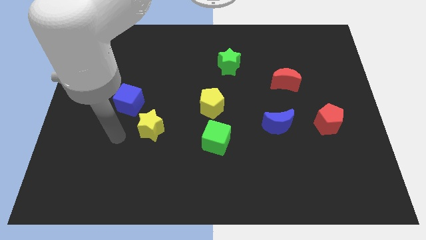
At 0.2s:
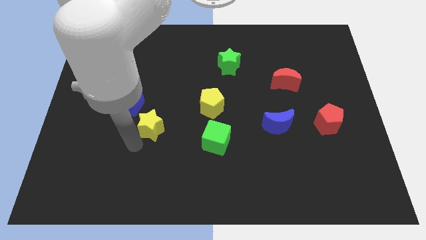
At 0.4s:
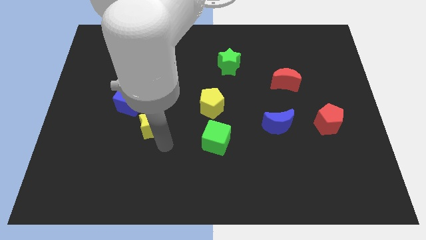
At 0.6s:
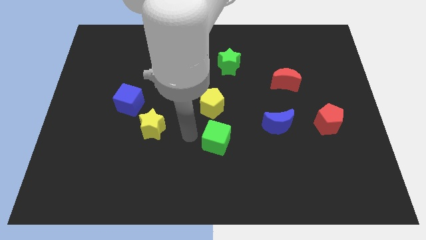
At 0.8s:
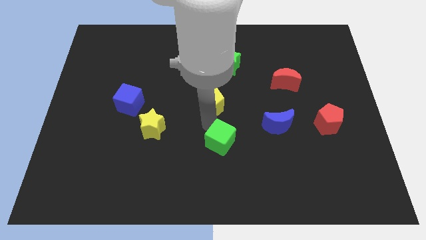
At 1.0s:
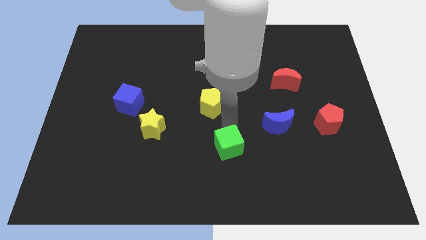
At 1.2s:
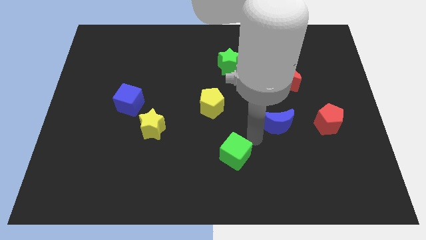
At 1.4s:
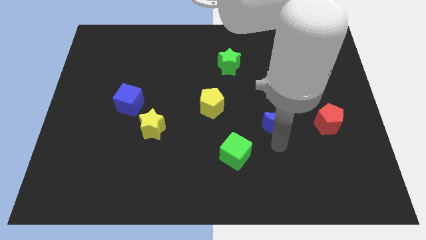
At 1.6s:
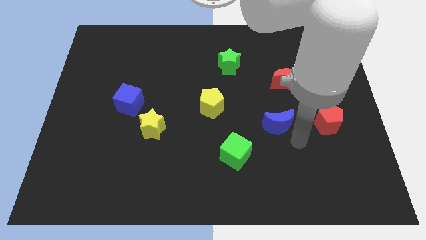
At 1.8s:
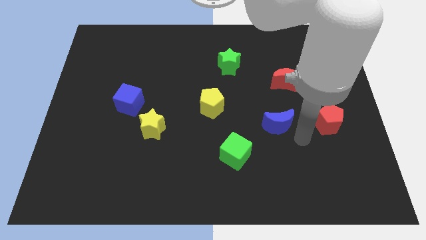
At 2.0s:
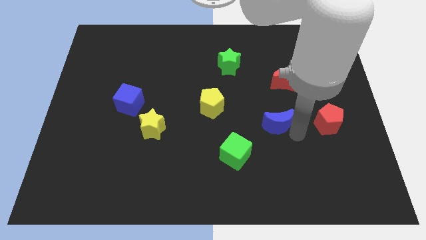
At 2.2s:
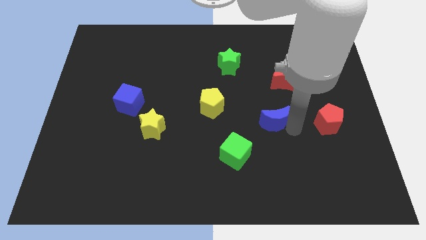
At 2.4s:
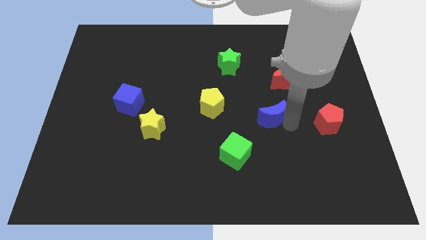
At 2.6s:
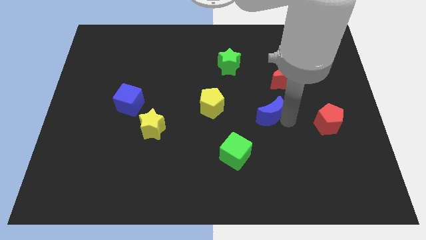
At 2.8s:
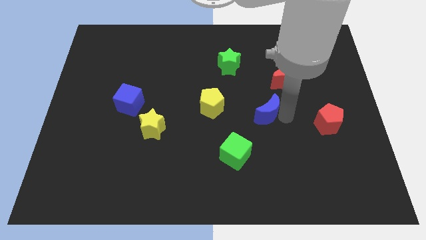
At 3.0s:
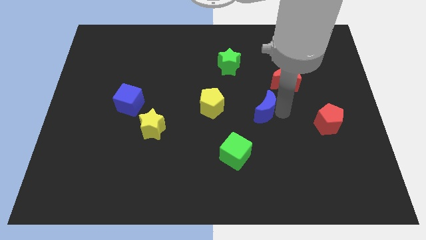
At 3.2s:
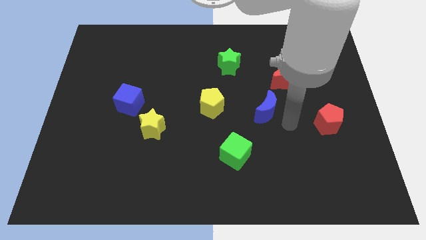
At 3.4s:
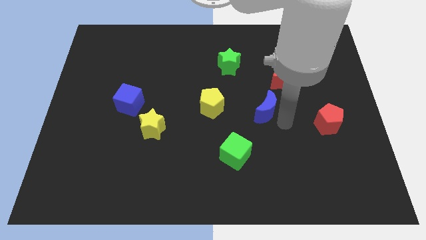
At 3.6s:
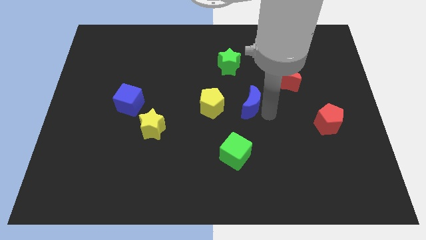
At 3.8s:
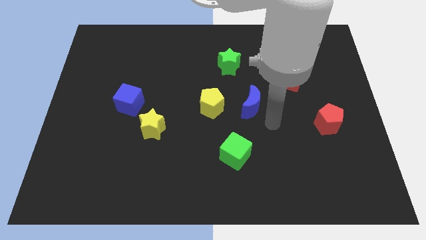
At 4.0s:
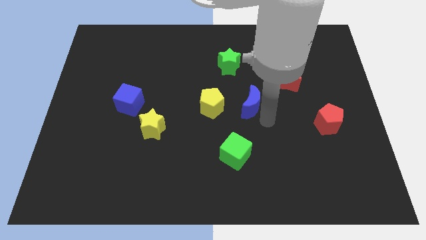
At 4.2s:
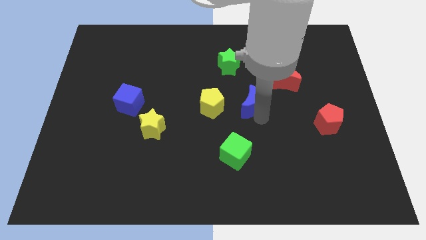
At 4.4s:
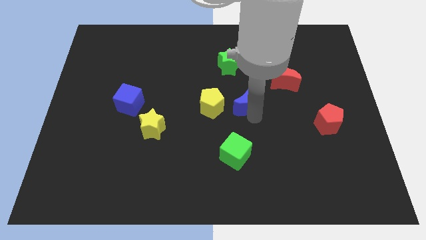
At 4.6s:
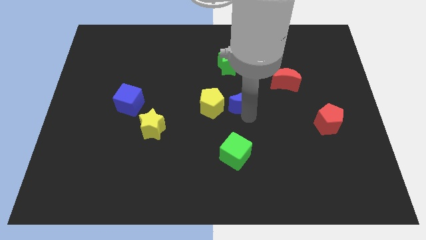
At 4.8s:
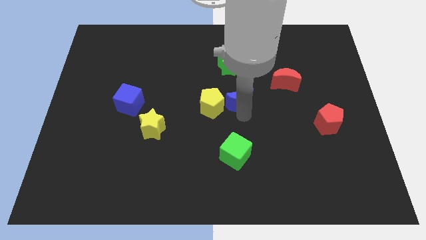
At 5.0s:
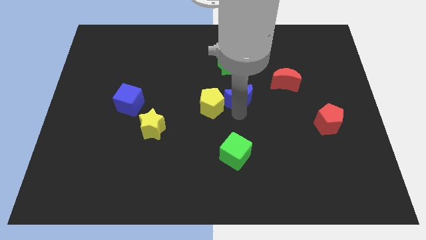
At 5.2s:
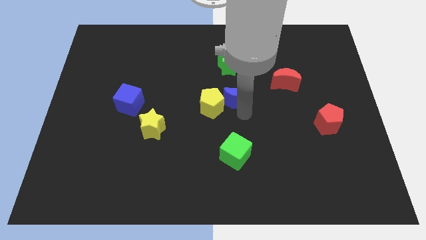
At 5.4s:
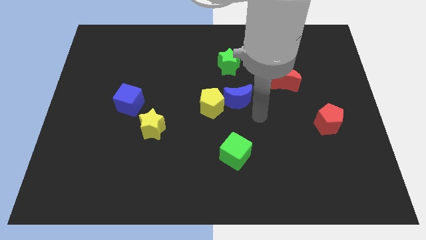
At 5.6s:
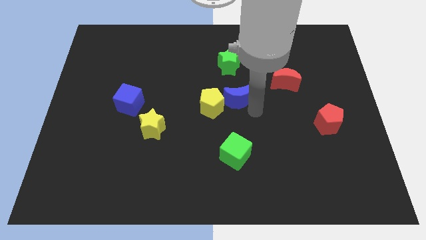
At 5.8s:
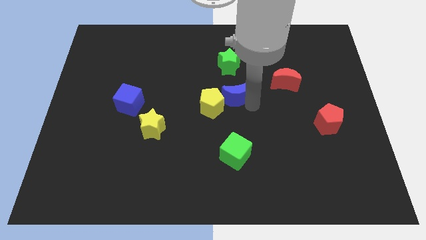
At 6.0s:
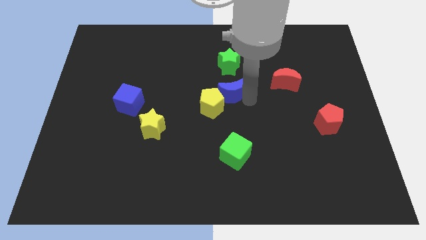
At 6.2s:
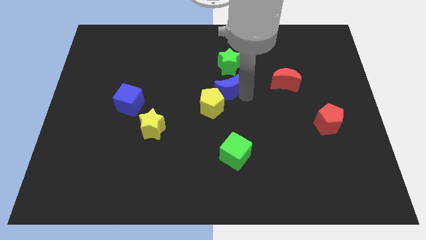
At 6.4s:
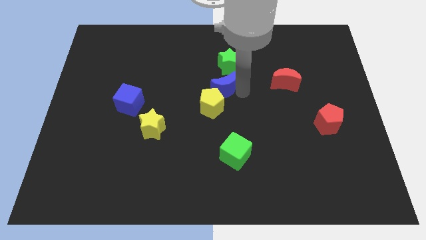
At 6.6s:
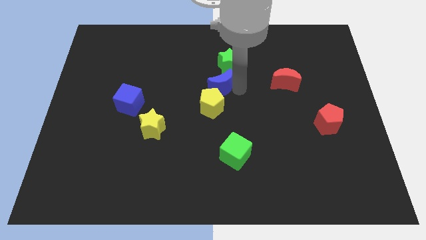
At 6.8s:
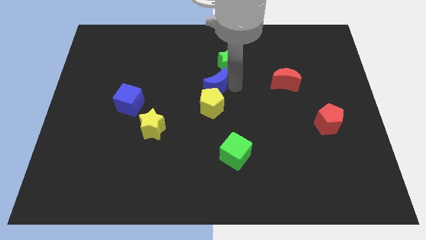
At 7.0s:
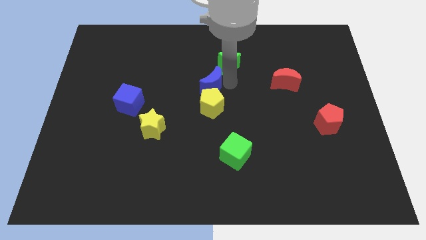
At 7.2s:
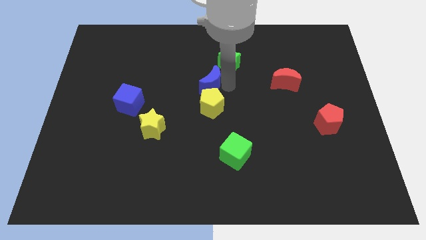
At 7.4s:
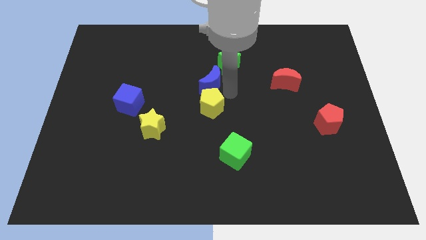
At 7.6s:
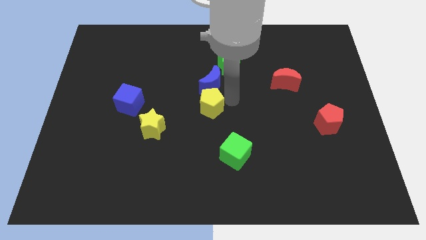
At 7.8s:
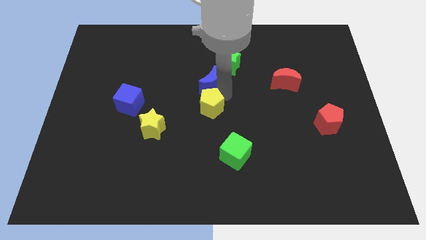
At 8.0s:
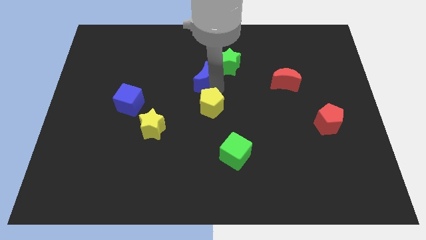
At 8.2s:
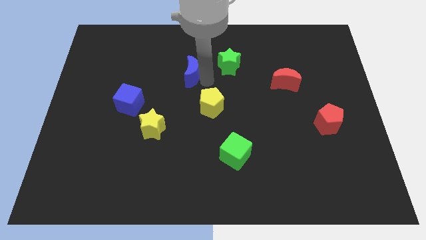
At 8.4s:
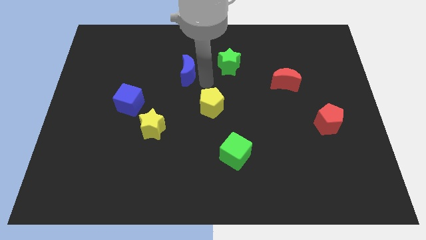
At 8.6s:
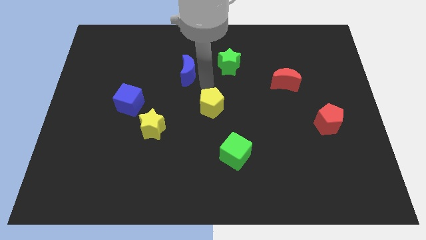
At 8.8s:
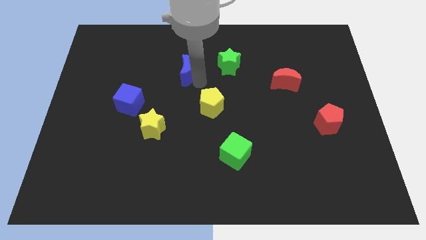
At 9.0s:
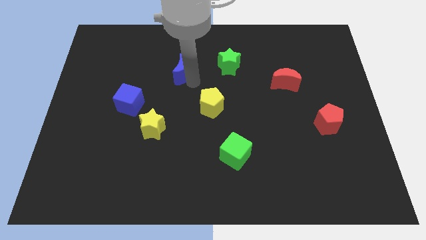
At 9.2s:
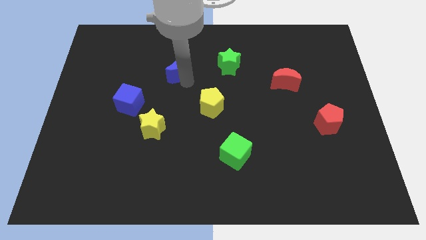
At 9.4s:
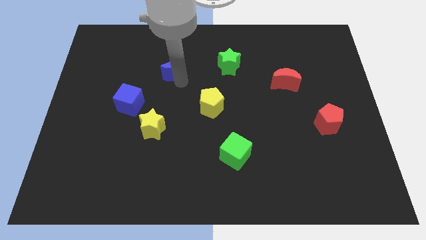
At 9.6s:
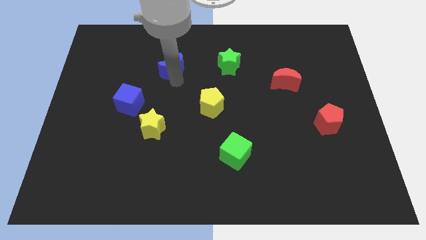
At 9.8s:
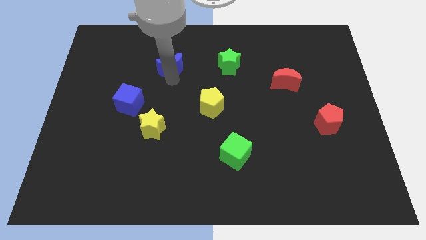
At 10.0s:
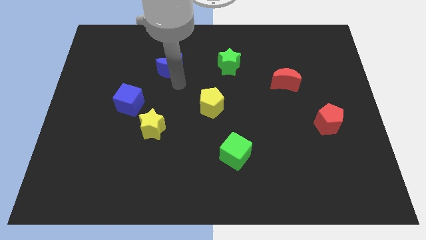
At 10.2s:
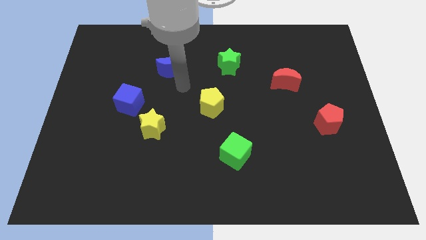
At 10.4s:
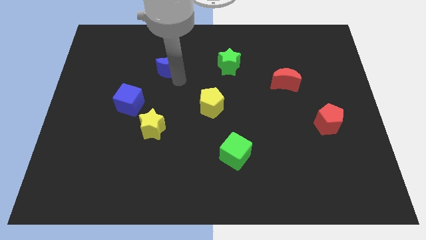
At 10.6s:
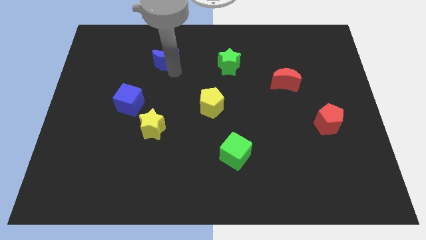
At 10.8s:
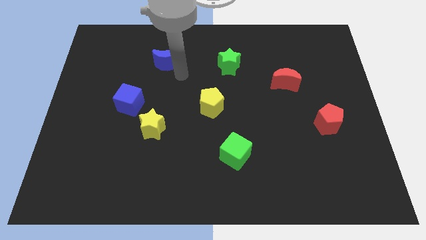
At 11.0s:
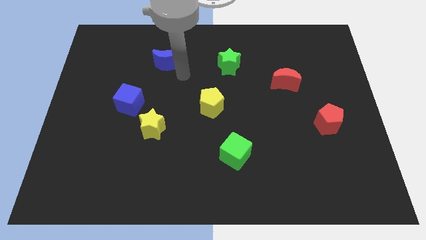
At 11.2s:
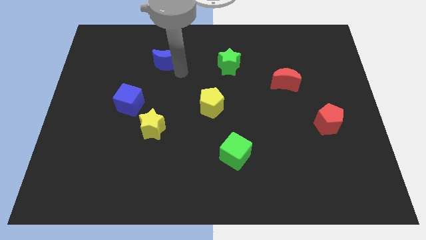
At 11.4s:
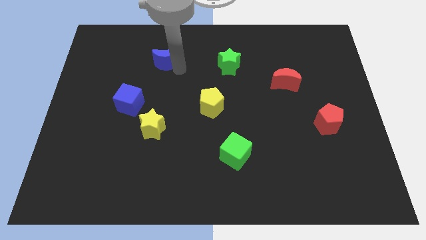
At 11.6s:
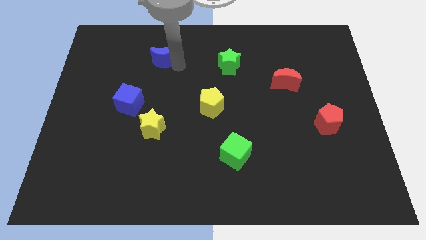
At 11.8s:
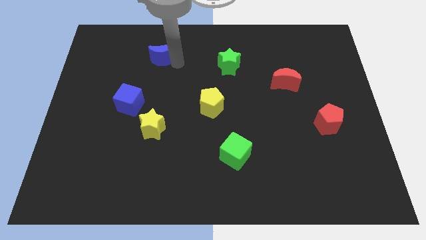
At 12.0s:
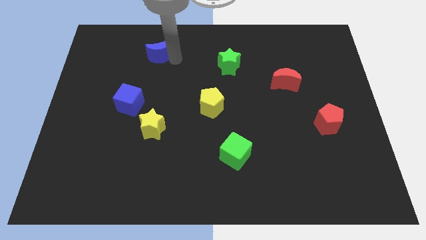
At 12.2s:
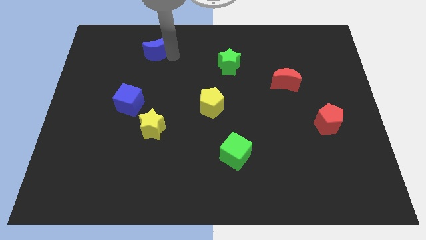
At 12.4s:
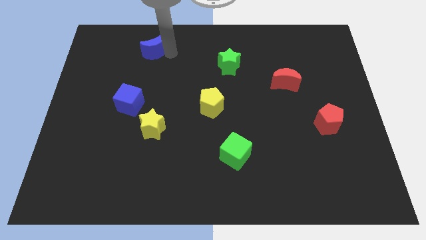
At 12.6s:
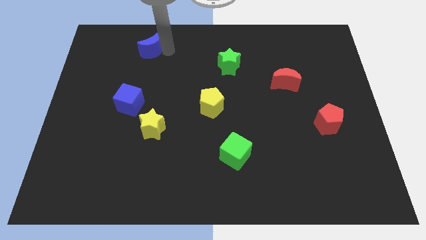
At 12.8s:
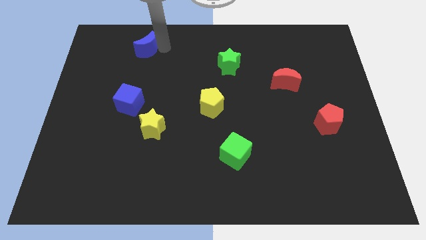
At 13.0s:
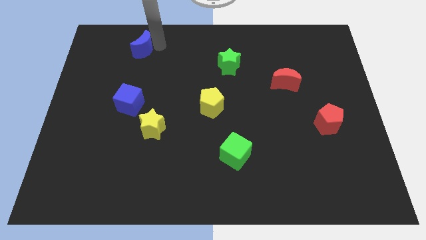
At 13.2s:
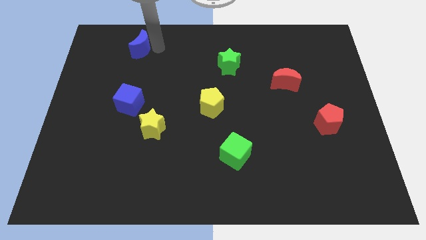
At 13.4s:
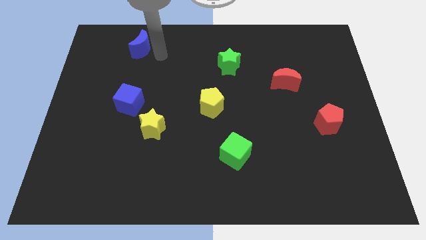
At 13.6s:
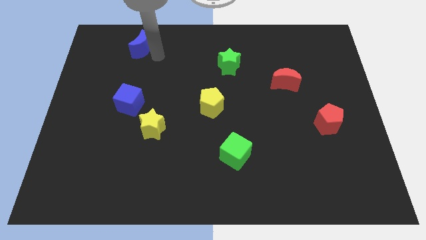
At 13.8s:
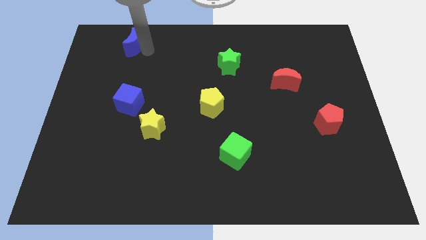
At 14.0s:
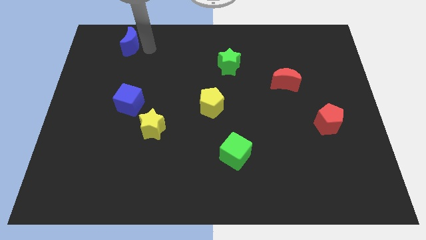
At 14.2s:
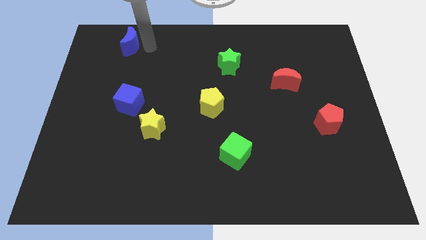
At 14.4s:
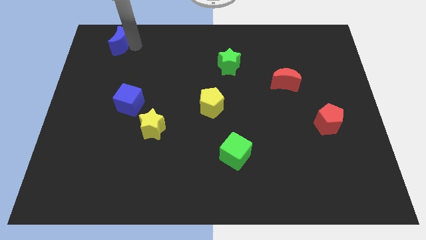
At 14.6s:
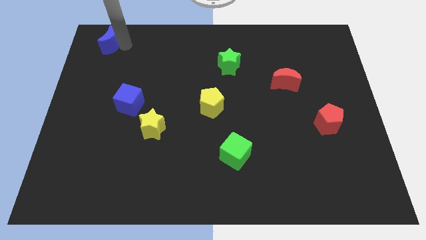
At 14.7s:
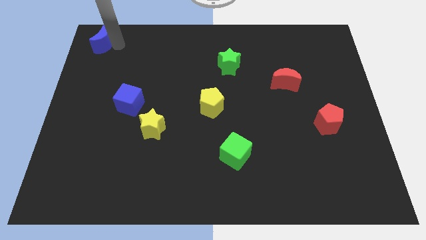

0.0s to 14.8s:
slide the blue moon to the top left of the board

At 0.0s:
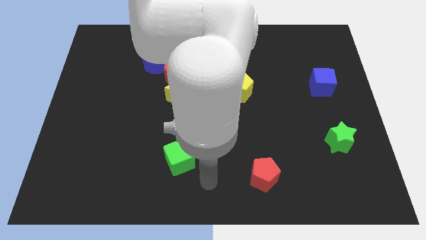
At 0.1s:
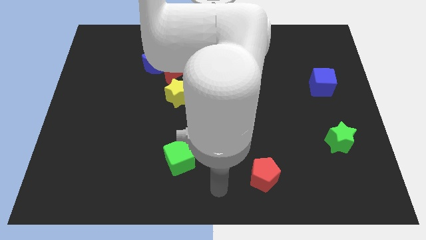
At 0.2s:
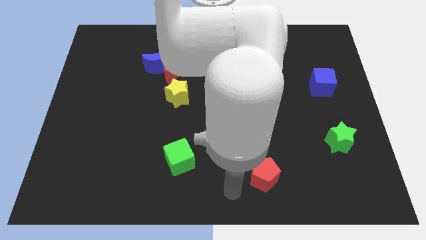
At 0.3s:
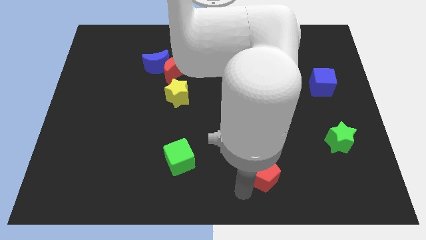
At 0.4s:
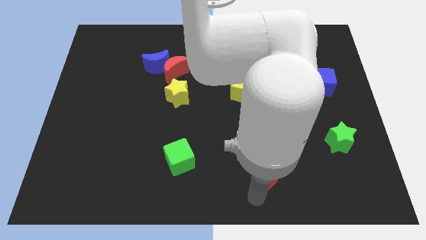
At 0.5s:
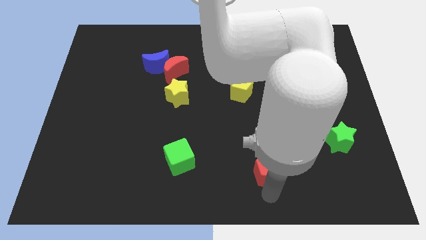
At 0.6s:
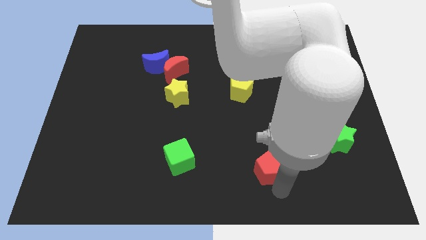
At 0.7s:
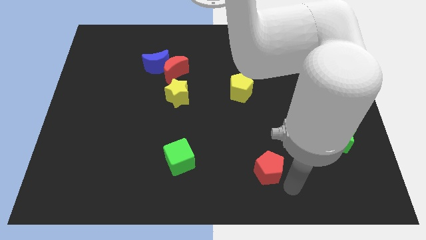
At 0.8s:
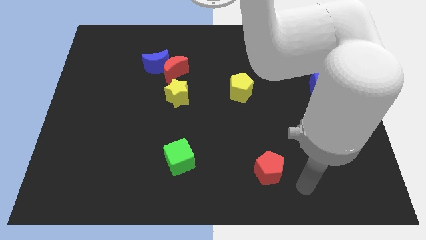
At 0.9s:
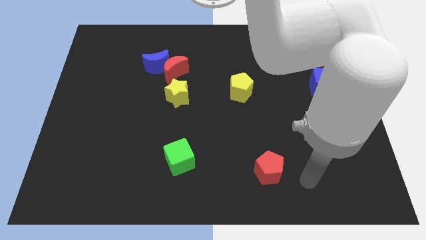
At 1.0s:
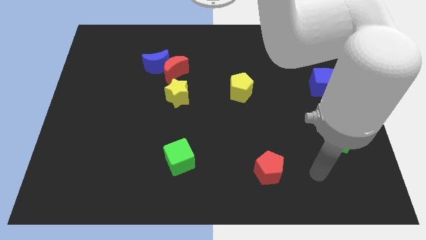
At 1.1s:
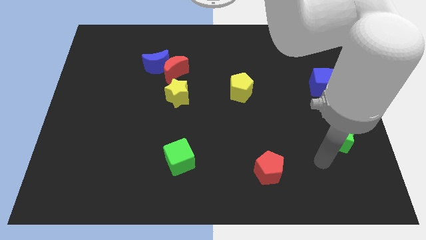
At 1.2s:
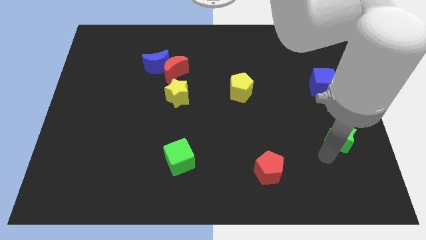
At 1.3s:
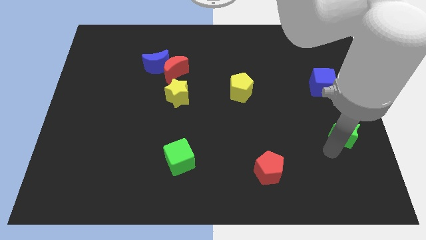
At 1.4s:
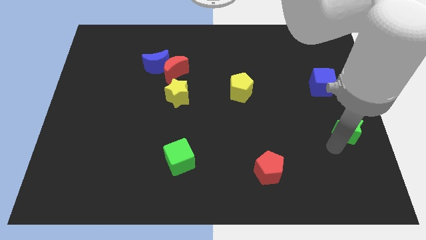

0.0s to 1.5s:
move the green star to the center right
